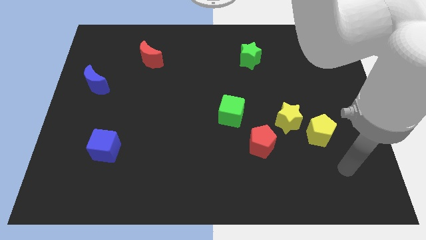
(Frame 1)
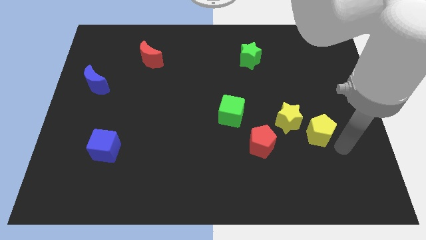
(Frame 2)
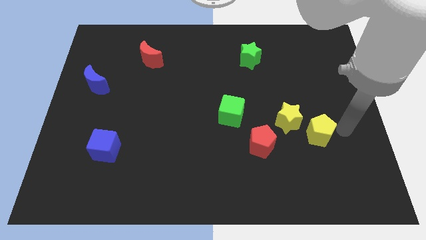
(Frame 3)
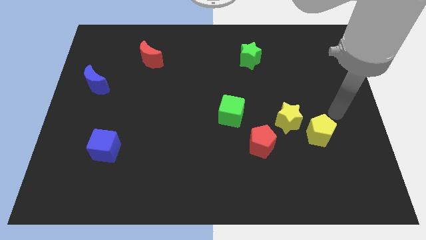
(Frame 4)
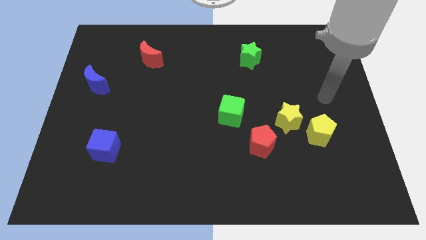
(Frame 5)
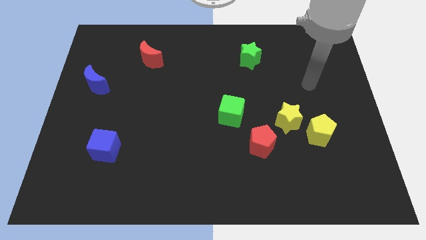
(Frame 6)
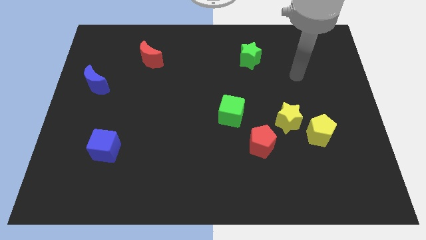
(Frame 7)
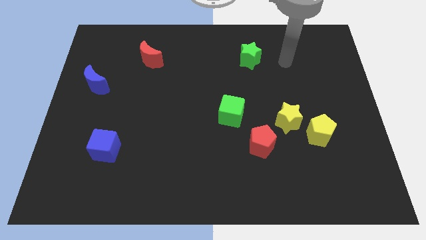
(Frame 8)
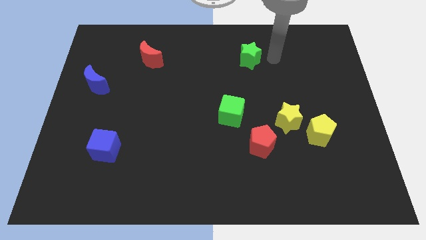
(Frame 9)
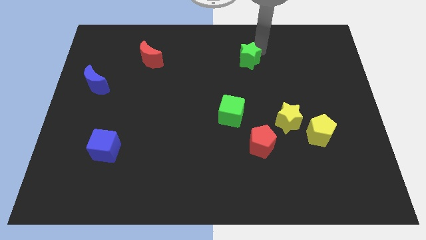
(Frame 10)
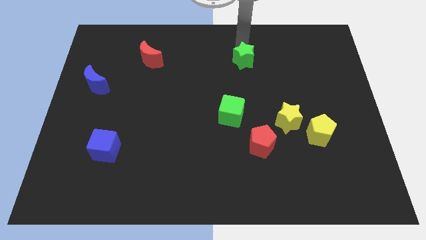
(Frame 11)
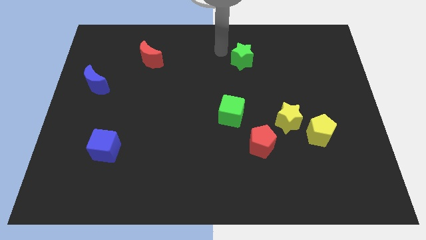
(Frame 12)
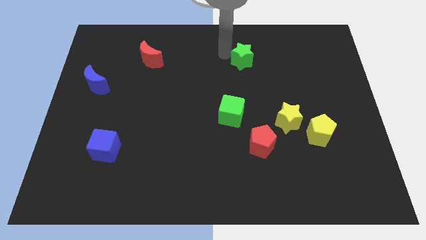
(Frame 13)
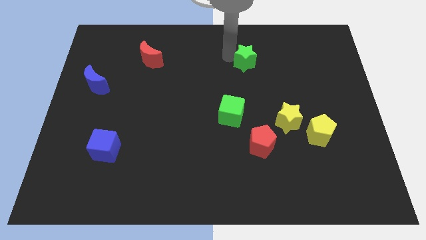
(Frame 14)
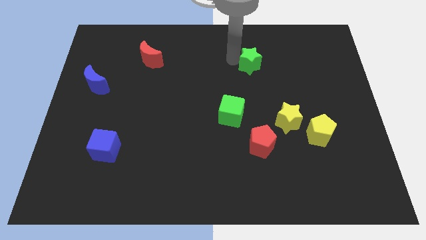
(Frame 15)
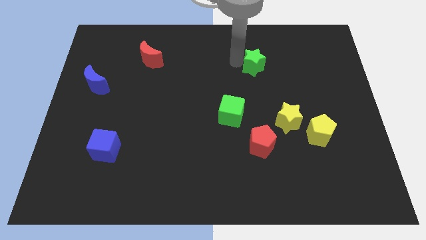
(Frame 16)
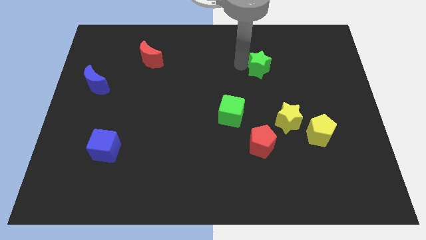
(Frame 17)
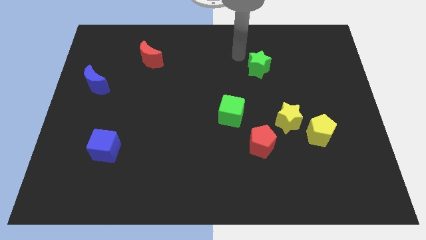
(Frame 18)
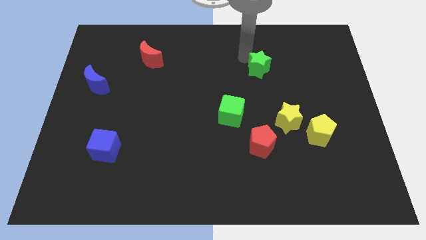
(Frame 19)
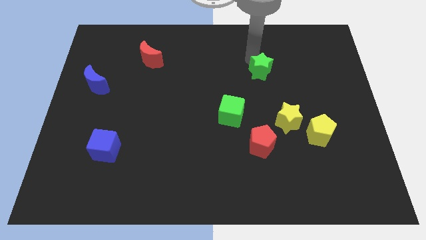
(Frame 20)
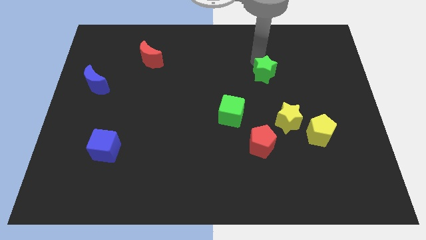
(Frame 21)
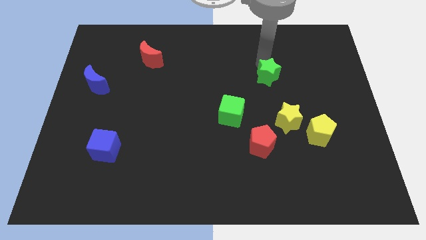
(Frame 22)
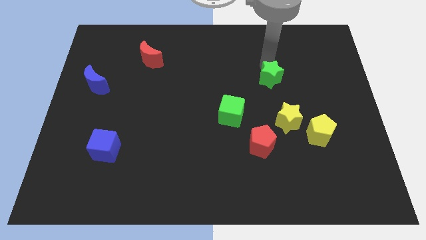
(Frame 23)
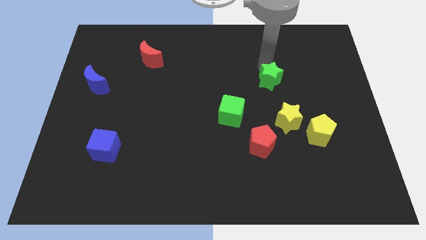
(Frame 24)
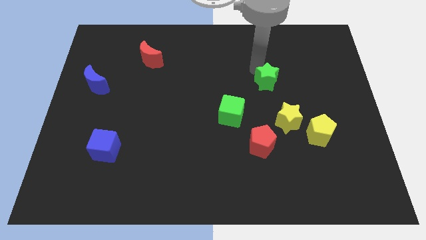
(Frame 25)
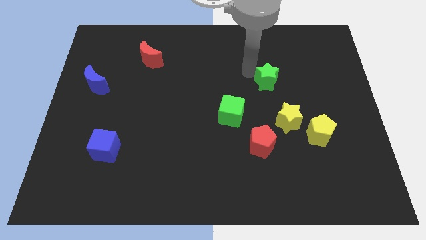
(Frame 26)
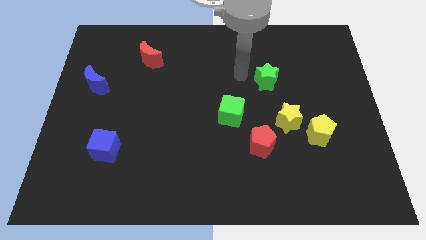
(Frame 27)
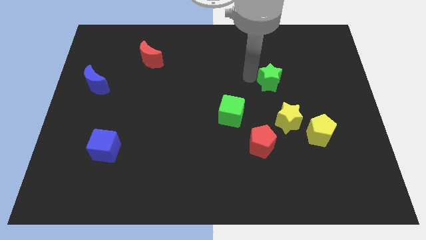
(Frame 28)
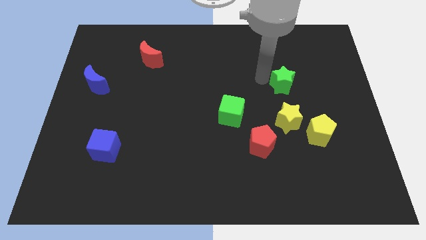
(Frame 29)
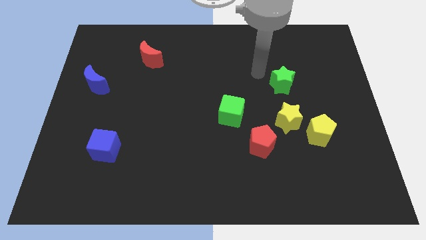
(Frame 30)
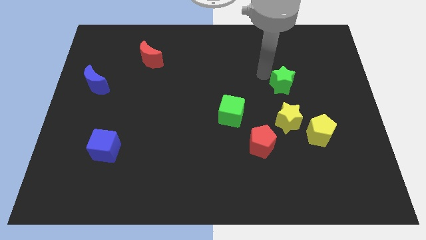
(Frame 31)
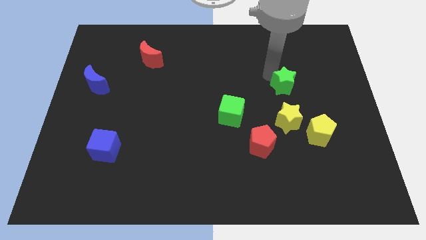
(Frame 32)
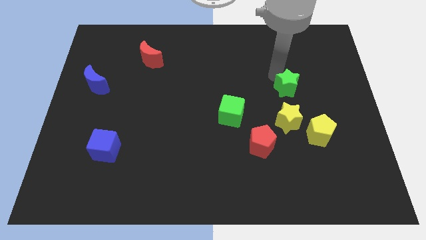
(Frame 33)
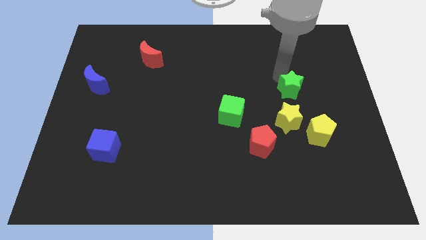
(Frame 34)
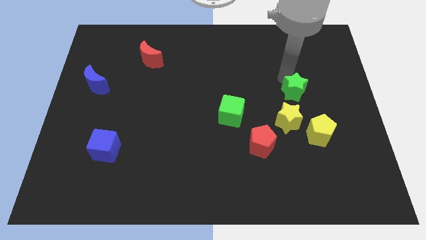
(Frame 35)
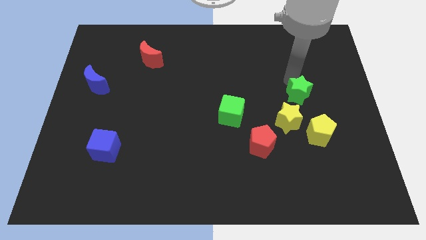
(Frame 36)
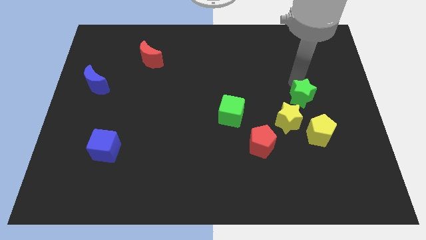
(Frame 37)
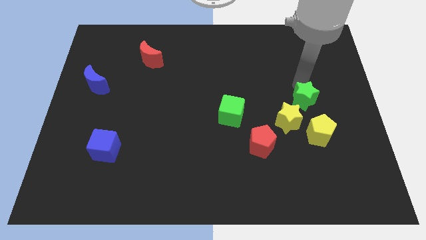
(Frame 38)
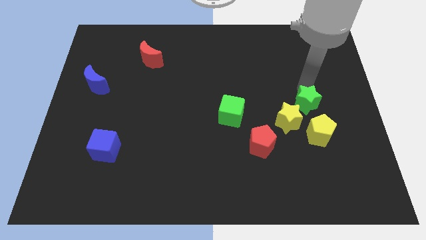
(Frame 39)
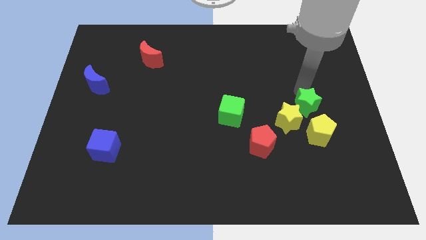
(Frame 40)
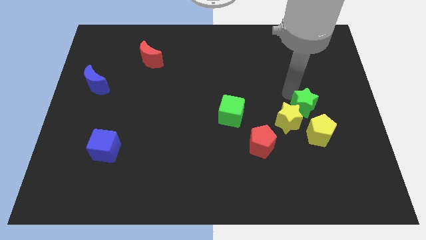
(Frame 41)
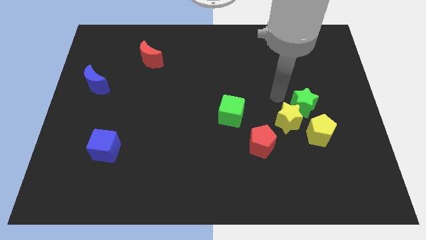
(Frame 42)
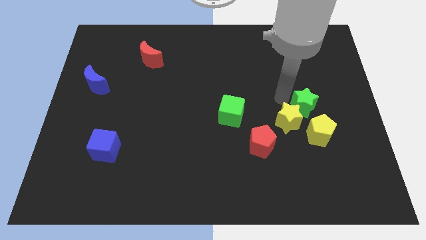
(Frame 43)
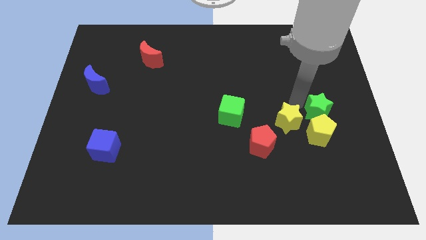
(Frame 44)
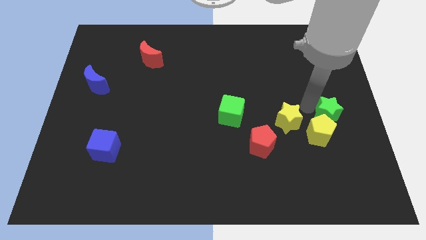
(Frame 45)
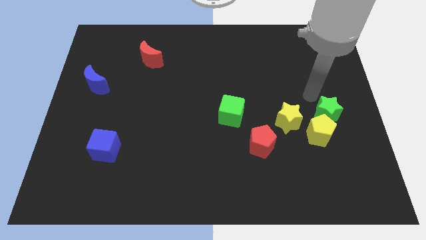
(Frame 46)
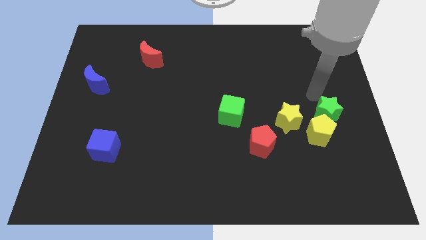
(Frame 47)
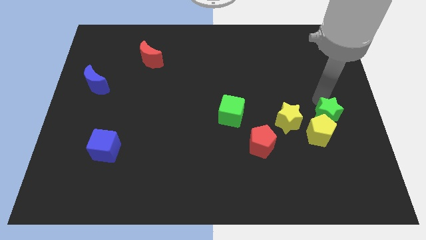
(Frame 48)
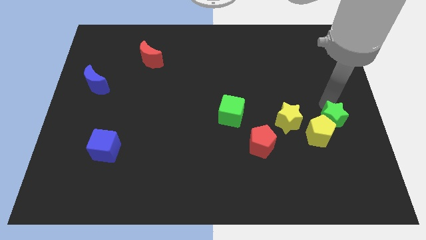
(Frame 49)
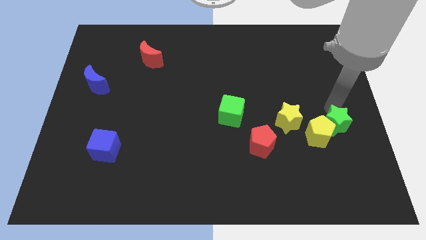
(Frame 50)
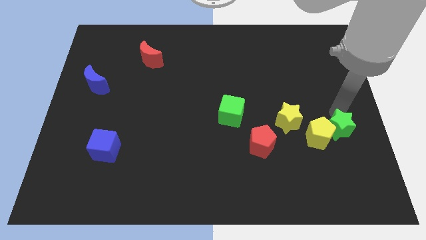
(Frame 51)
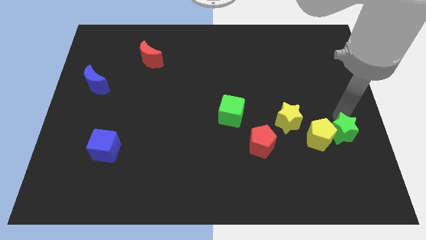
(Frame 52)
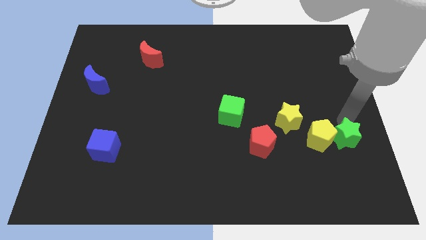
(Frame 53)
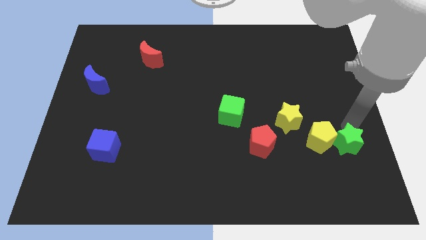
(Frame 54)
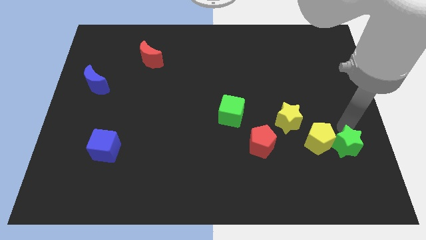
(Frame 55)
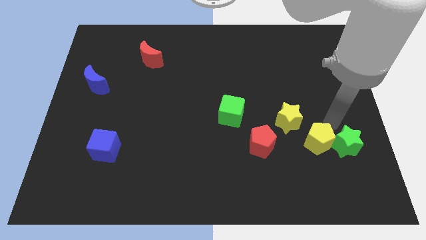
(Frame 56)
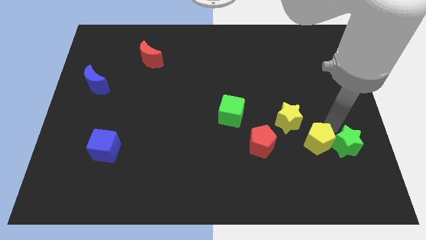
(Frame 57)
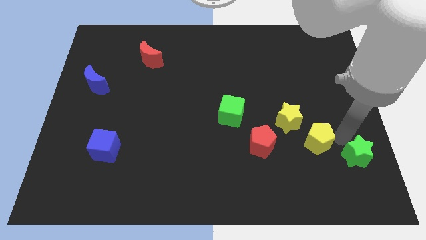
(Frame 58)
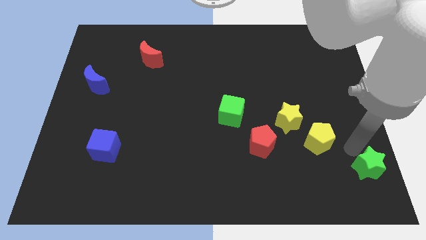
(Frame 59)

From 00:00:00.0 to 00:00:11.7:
push the green star to the lower right corner
